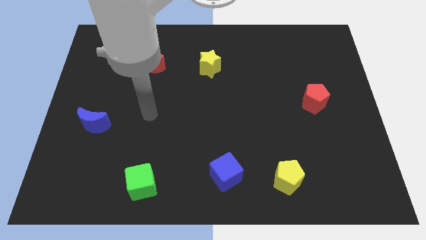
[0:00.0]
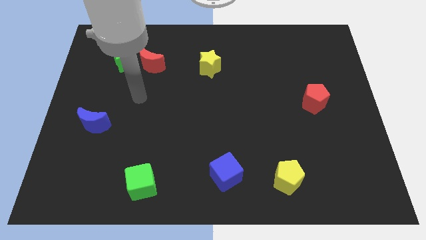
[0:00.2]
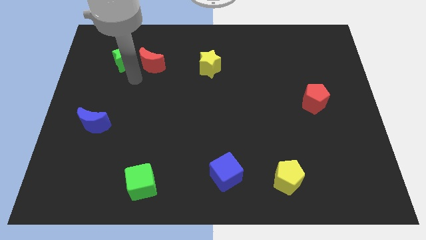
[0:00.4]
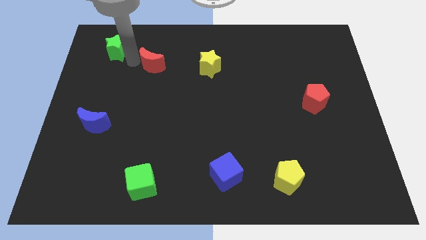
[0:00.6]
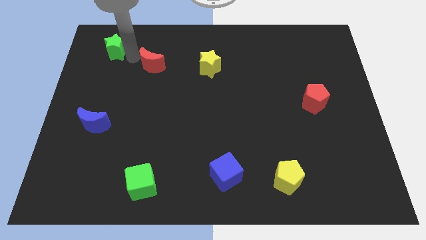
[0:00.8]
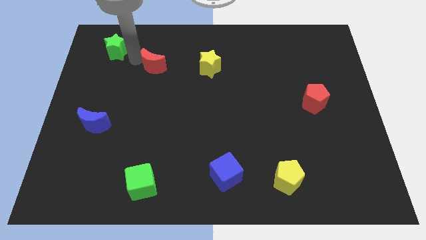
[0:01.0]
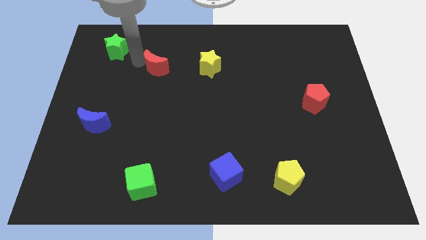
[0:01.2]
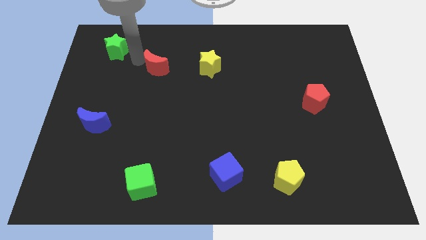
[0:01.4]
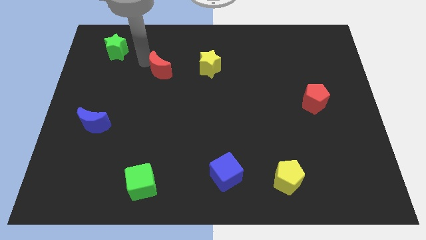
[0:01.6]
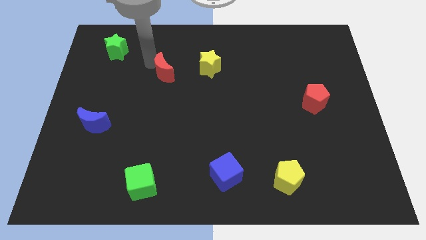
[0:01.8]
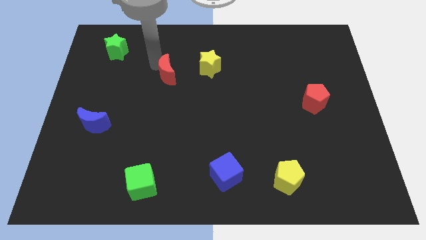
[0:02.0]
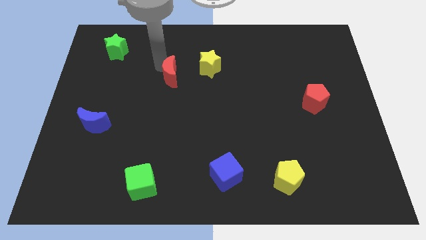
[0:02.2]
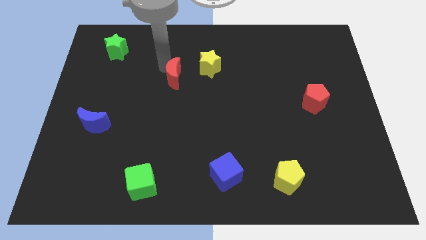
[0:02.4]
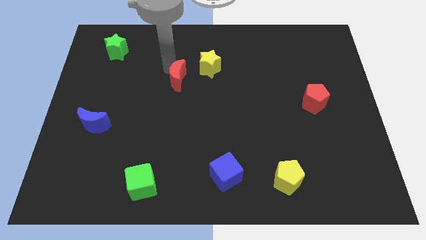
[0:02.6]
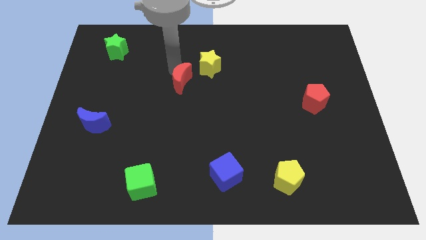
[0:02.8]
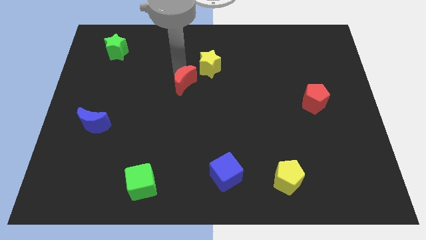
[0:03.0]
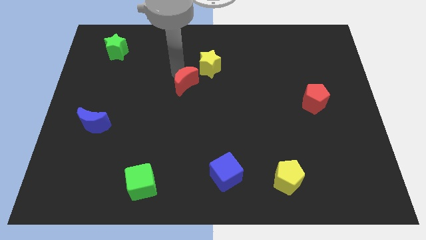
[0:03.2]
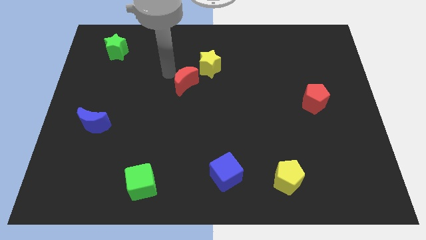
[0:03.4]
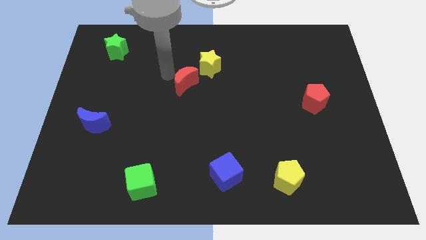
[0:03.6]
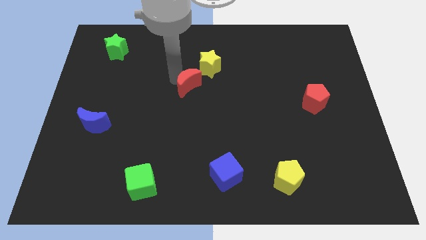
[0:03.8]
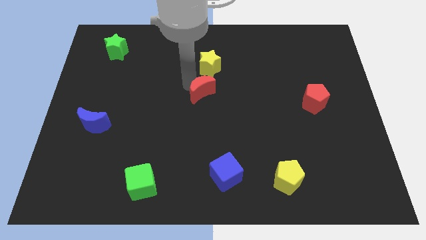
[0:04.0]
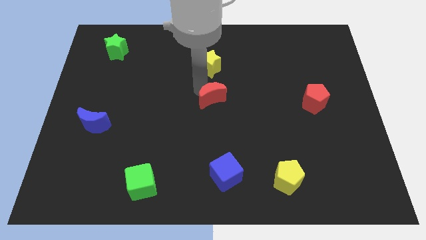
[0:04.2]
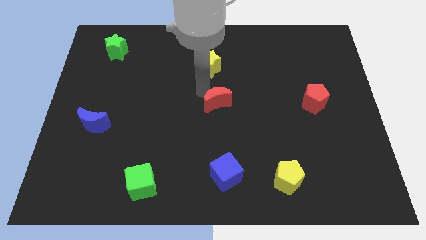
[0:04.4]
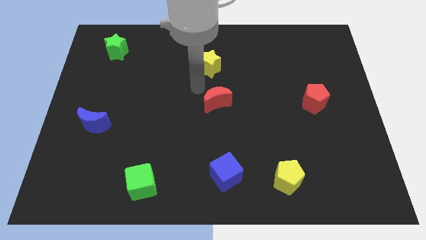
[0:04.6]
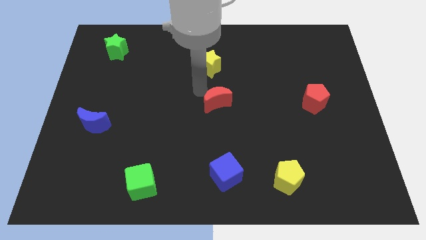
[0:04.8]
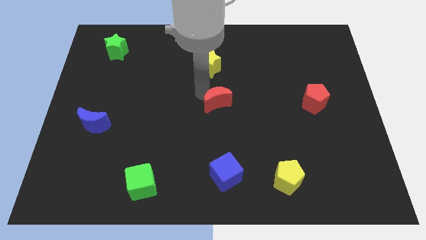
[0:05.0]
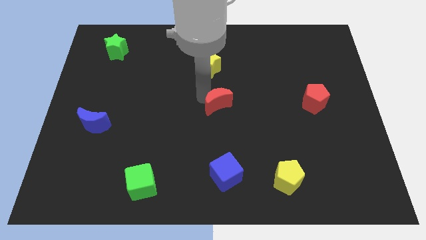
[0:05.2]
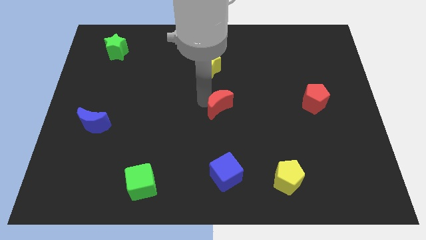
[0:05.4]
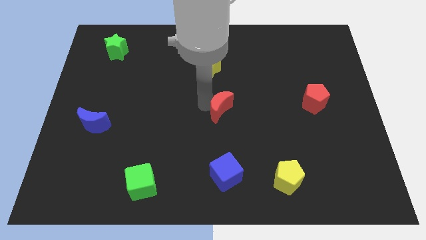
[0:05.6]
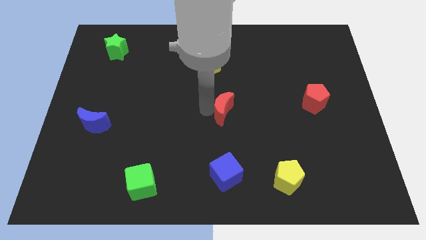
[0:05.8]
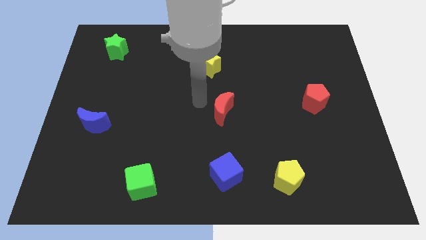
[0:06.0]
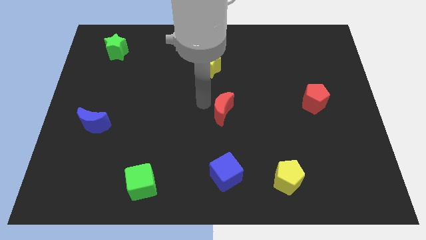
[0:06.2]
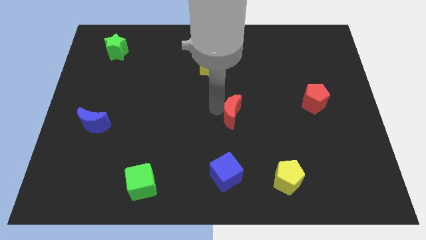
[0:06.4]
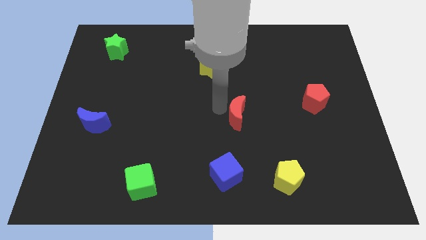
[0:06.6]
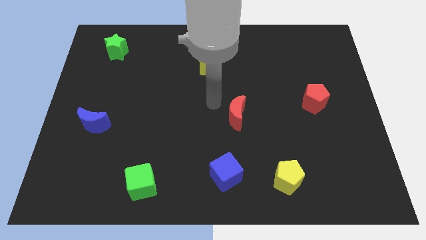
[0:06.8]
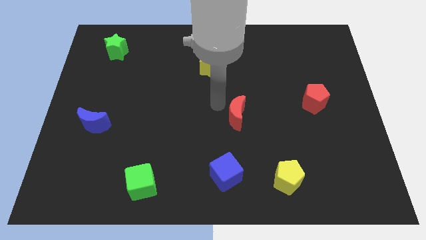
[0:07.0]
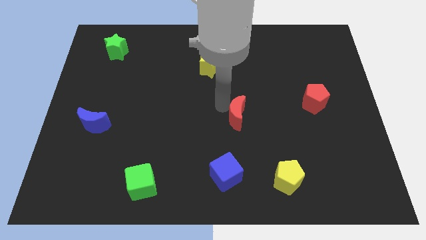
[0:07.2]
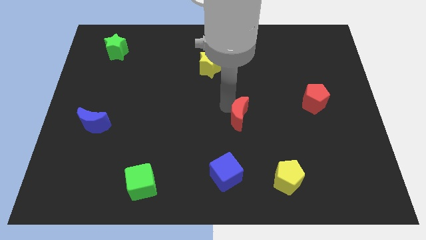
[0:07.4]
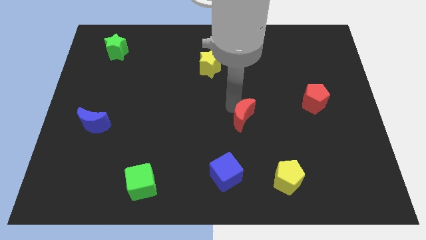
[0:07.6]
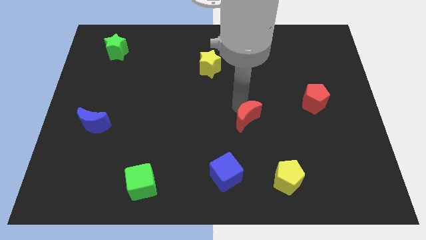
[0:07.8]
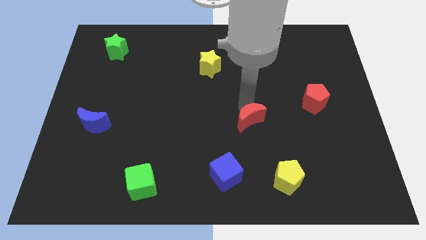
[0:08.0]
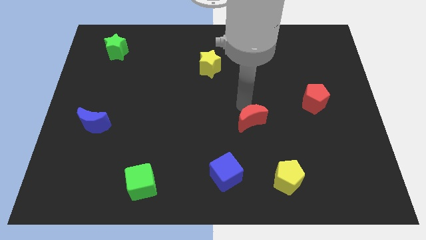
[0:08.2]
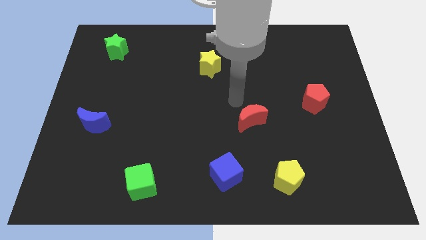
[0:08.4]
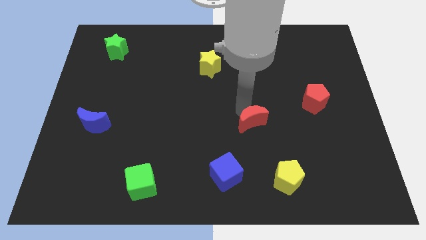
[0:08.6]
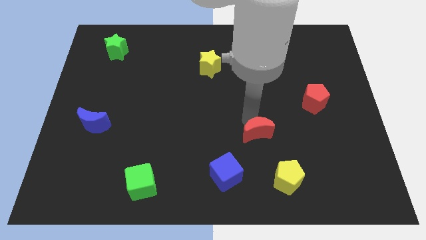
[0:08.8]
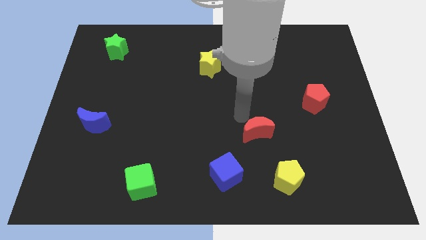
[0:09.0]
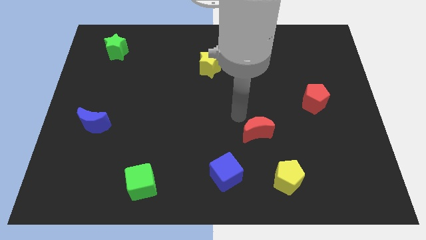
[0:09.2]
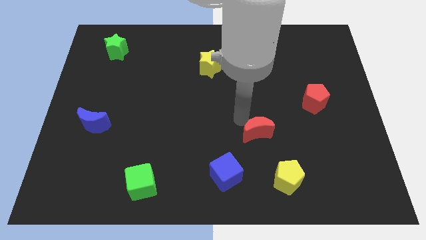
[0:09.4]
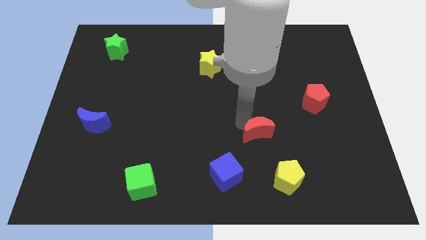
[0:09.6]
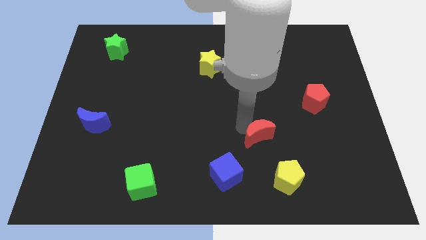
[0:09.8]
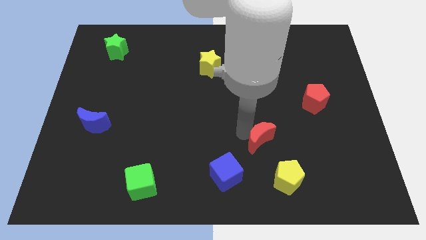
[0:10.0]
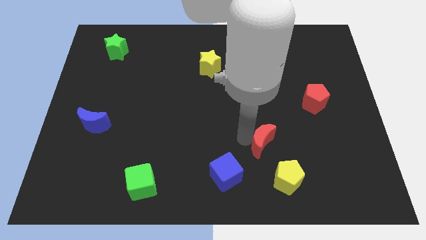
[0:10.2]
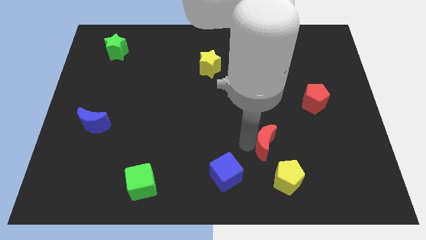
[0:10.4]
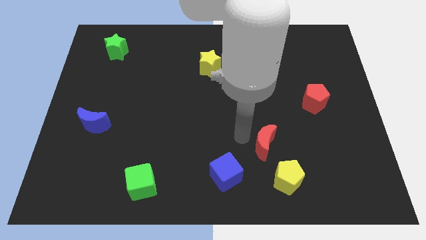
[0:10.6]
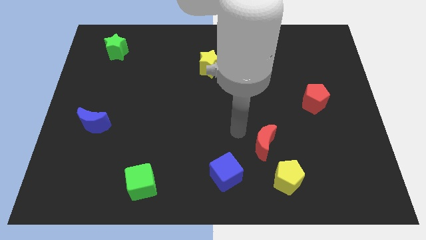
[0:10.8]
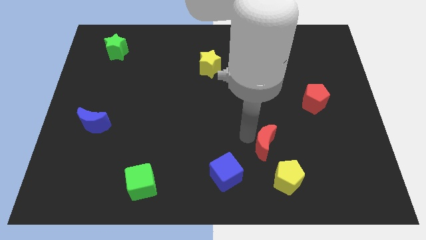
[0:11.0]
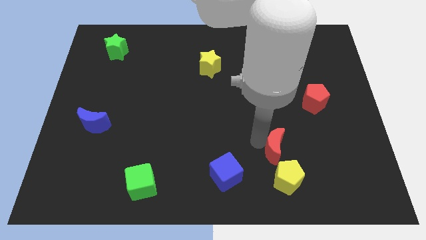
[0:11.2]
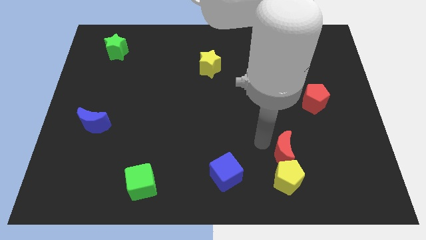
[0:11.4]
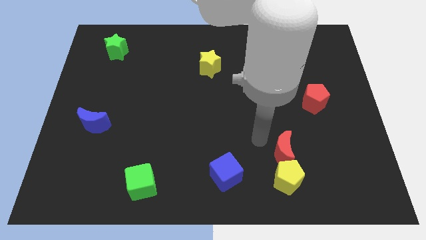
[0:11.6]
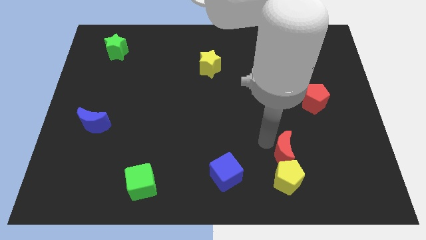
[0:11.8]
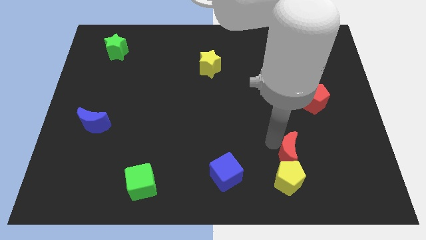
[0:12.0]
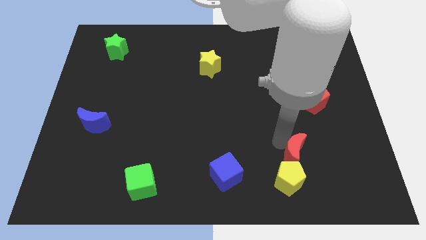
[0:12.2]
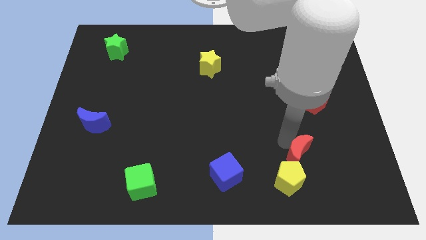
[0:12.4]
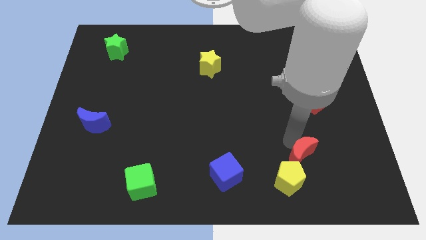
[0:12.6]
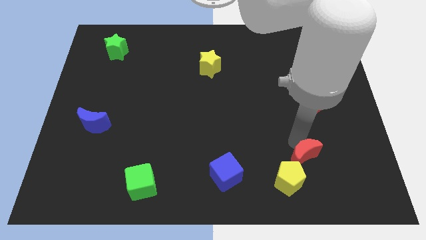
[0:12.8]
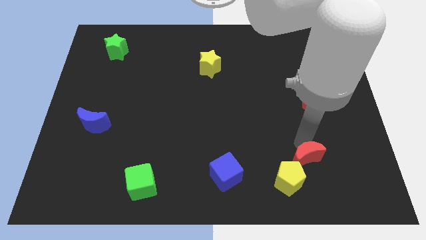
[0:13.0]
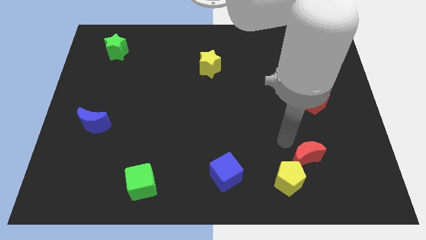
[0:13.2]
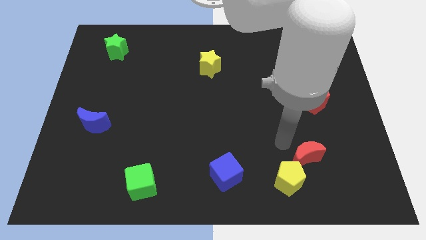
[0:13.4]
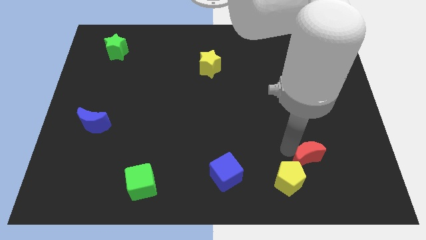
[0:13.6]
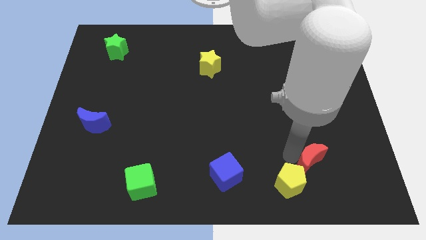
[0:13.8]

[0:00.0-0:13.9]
push the red moon right of the yellow pentagon

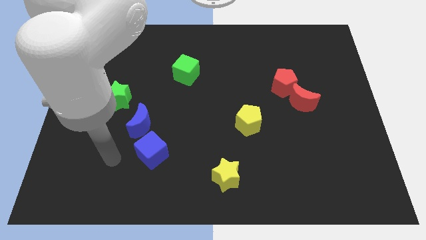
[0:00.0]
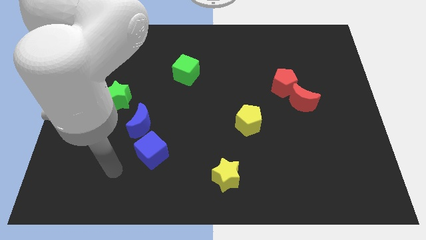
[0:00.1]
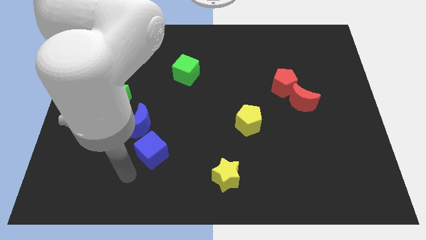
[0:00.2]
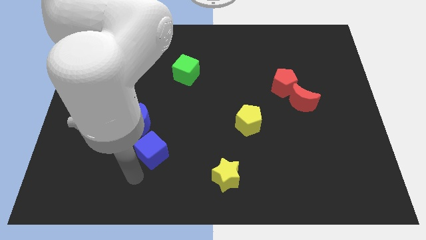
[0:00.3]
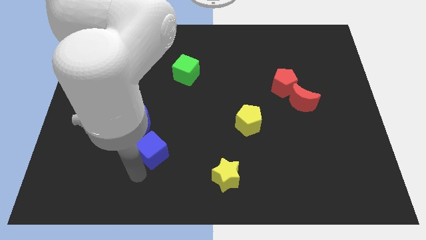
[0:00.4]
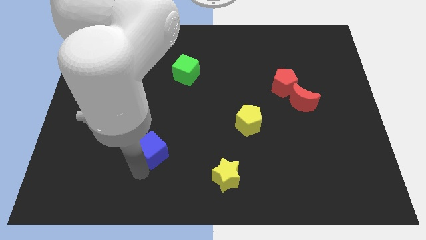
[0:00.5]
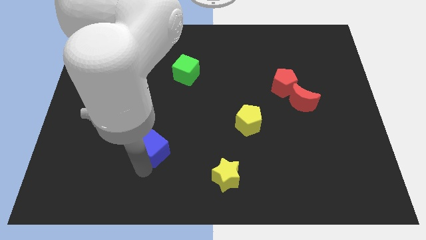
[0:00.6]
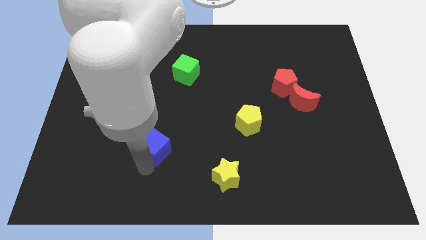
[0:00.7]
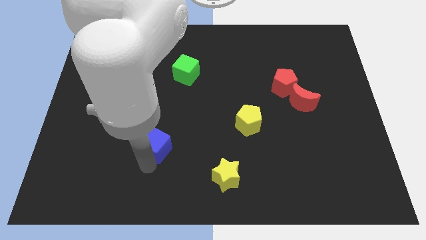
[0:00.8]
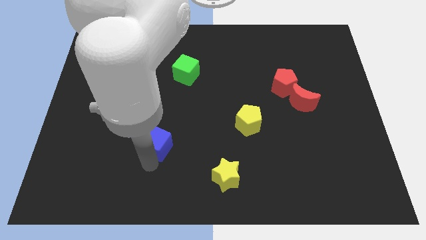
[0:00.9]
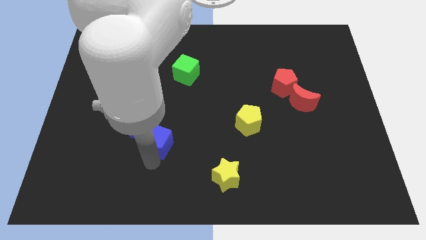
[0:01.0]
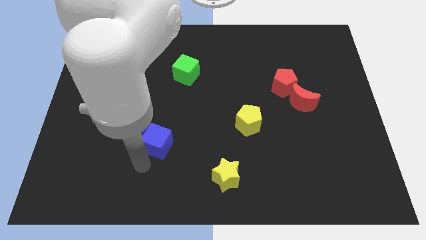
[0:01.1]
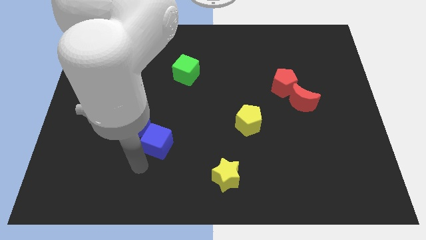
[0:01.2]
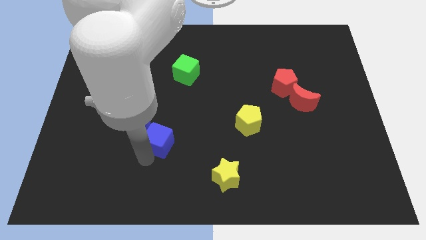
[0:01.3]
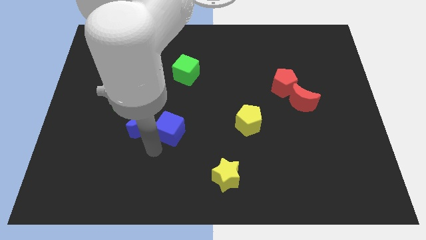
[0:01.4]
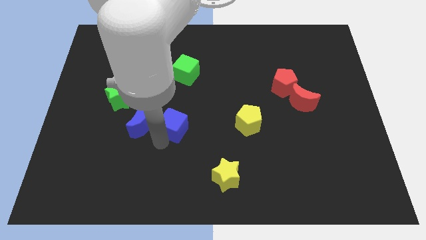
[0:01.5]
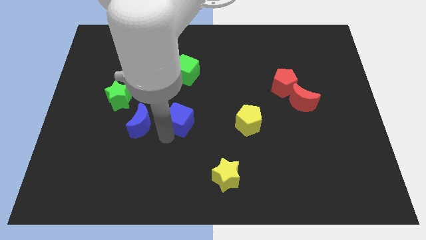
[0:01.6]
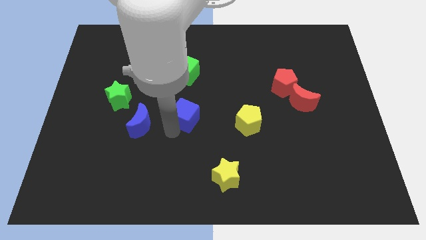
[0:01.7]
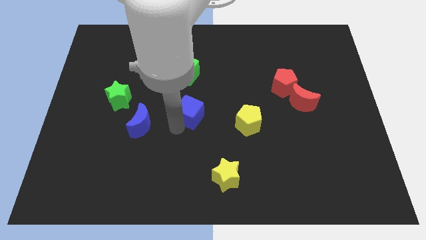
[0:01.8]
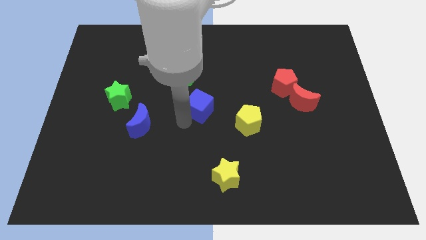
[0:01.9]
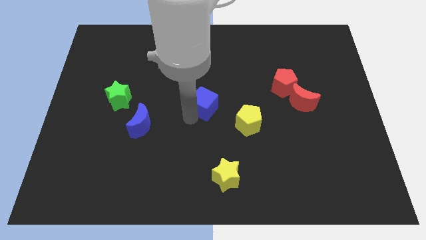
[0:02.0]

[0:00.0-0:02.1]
put the blue cube to the bottom right side of the green cube
